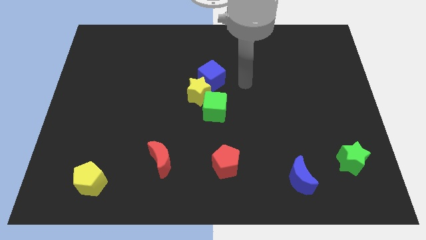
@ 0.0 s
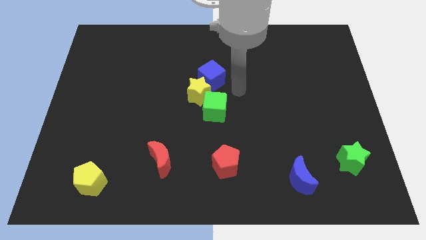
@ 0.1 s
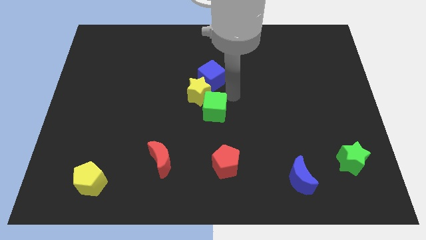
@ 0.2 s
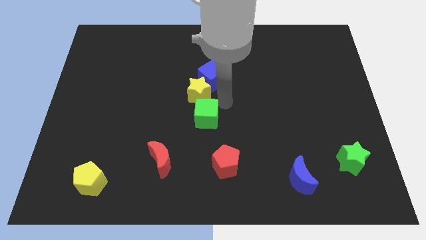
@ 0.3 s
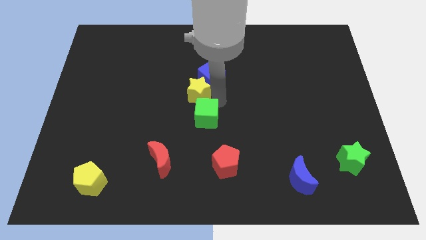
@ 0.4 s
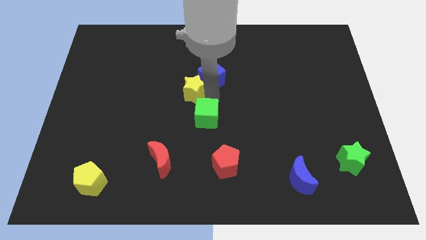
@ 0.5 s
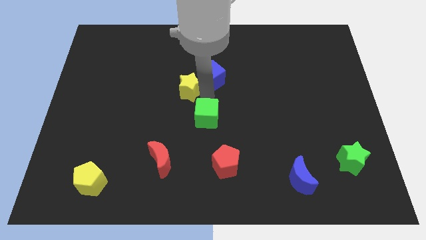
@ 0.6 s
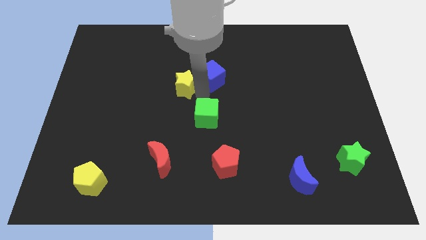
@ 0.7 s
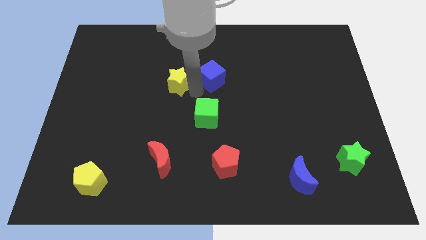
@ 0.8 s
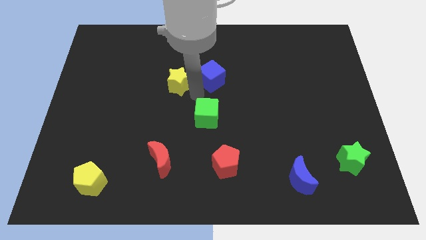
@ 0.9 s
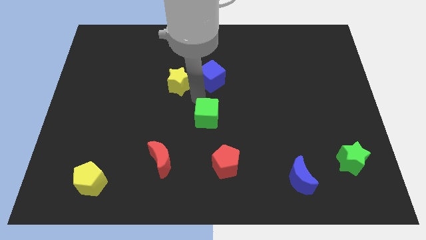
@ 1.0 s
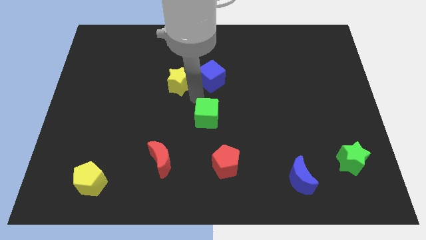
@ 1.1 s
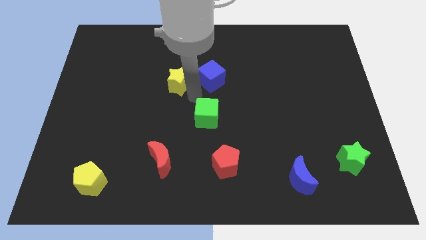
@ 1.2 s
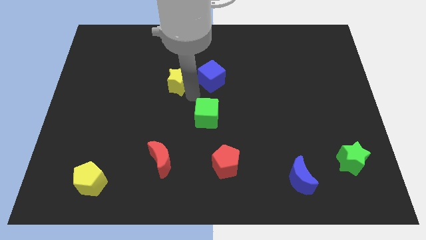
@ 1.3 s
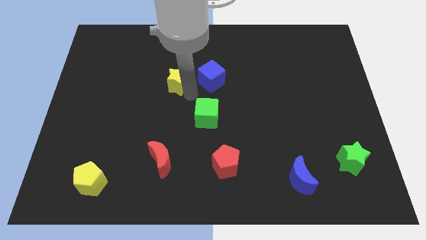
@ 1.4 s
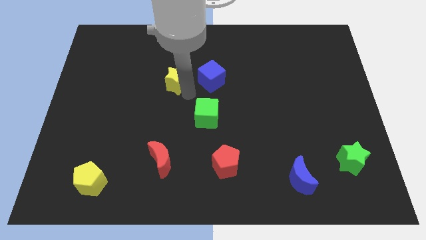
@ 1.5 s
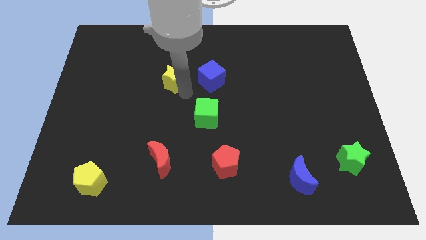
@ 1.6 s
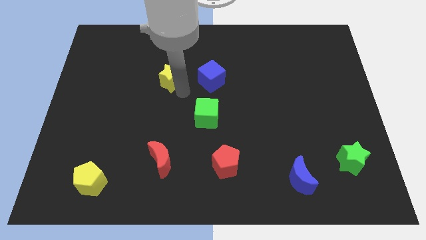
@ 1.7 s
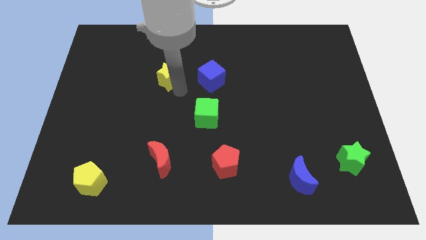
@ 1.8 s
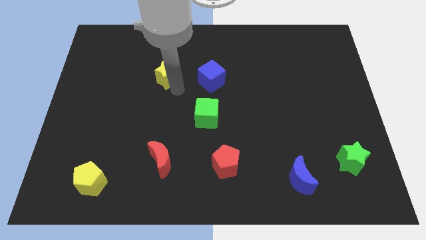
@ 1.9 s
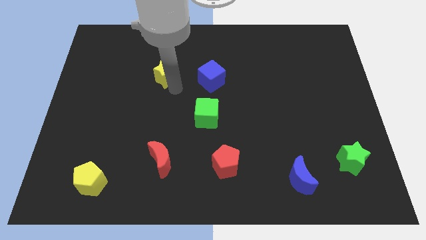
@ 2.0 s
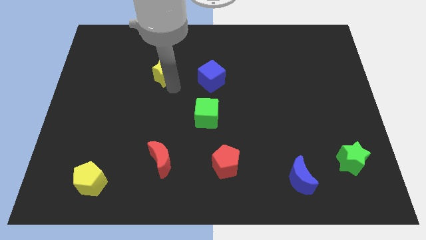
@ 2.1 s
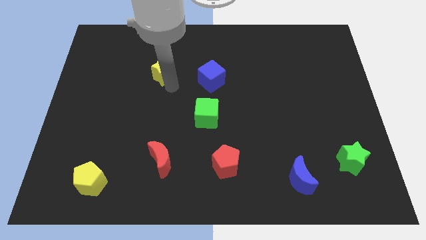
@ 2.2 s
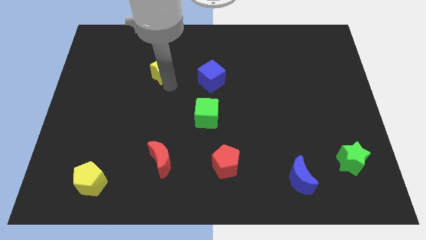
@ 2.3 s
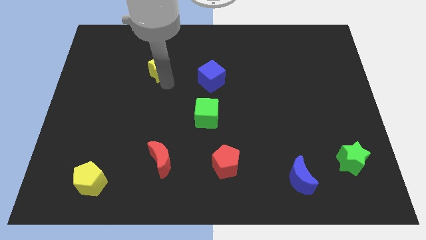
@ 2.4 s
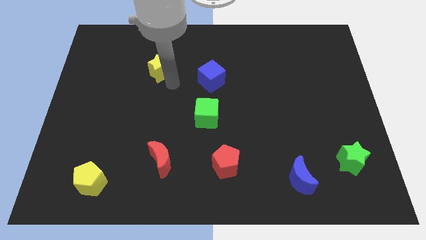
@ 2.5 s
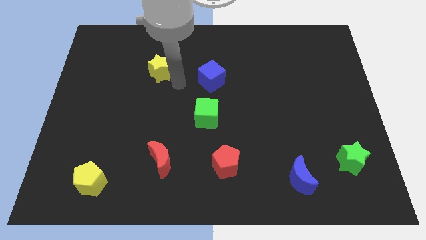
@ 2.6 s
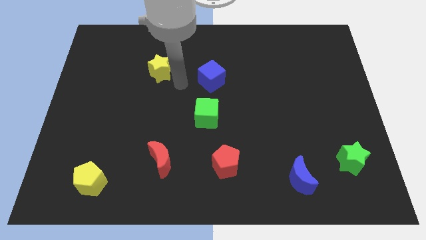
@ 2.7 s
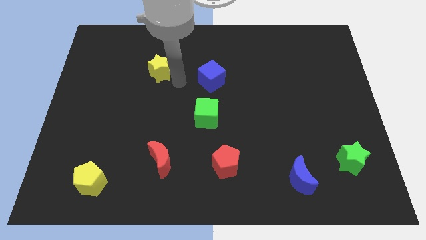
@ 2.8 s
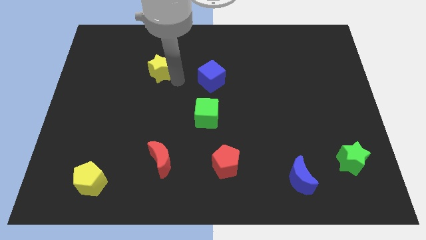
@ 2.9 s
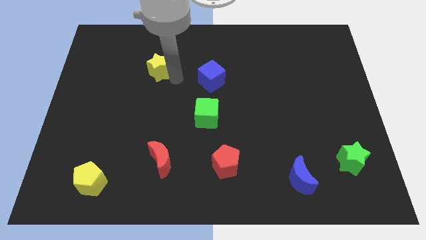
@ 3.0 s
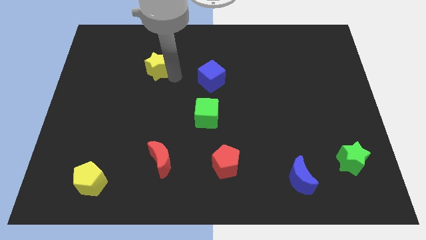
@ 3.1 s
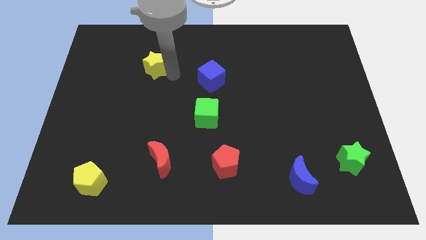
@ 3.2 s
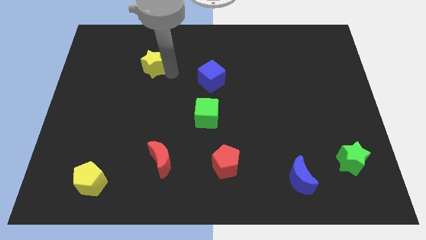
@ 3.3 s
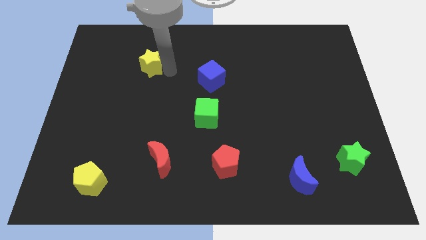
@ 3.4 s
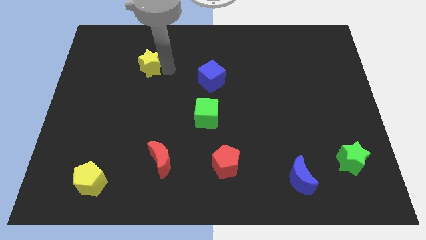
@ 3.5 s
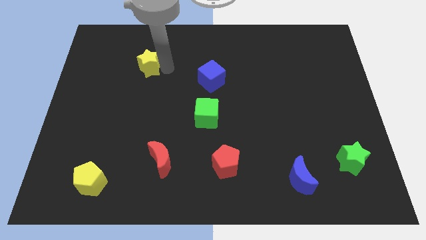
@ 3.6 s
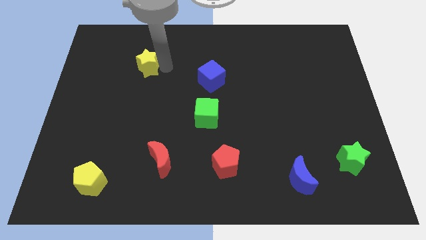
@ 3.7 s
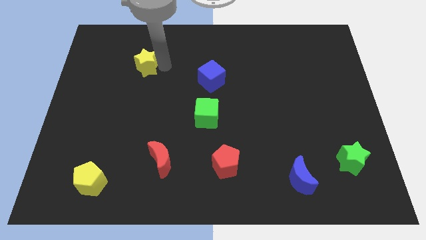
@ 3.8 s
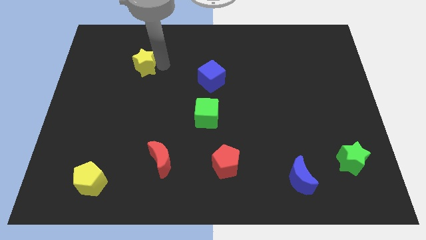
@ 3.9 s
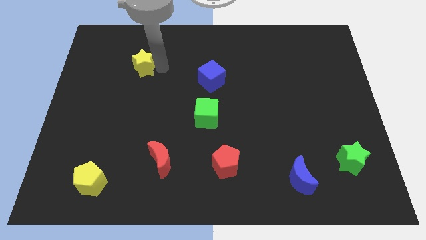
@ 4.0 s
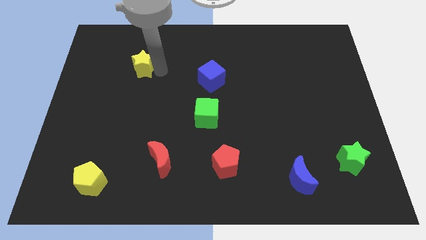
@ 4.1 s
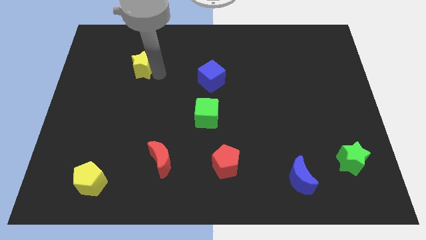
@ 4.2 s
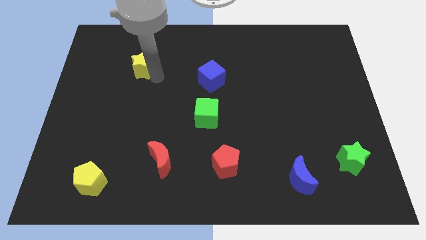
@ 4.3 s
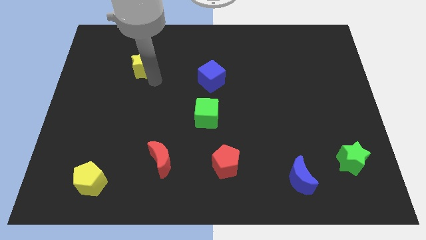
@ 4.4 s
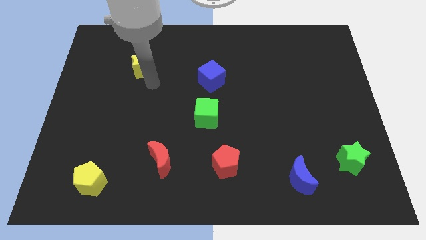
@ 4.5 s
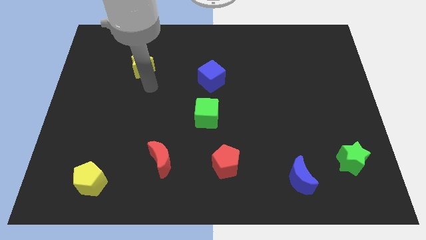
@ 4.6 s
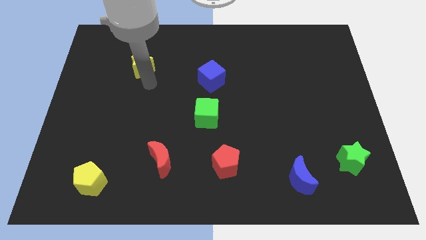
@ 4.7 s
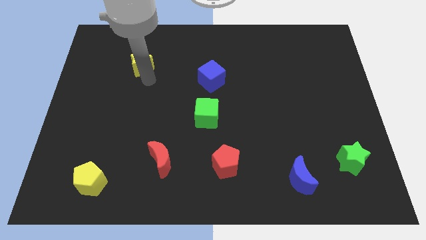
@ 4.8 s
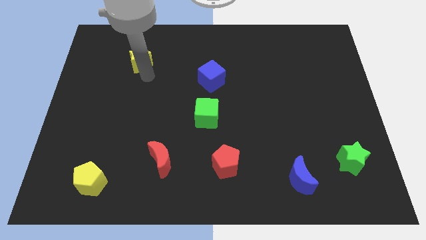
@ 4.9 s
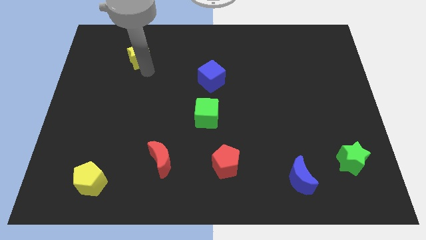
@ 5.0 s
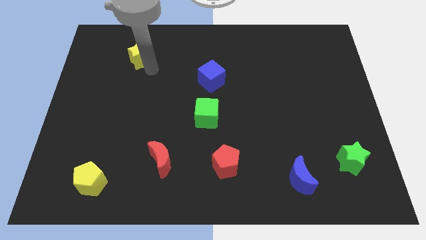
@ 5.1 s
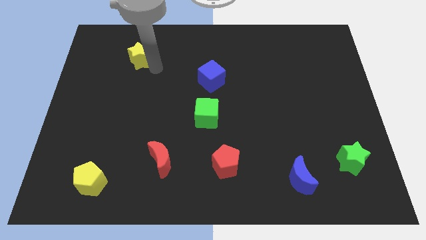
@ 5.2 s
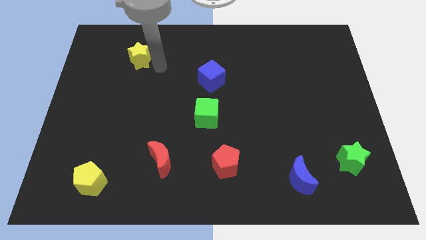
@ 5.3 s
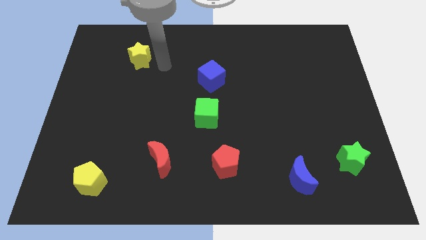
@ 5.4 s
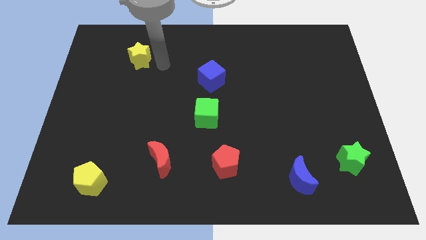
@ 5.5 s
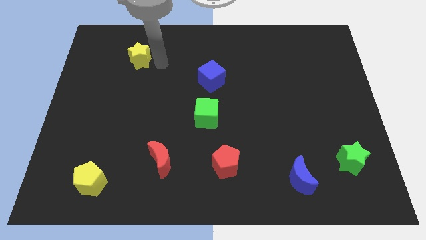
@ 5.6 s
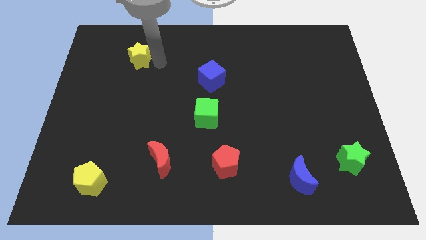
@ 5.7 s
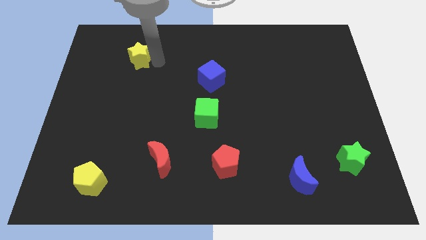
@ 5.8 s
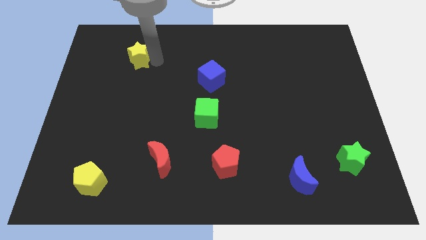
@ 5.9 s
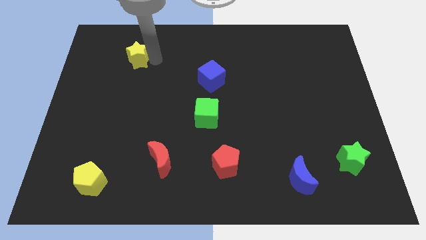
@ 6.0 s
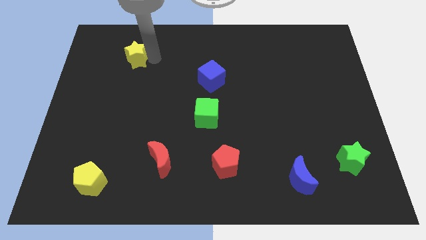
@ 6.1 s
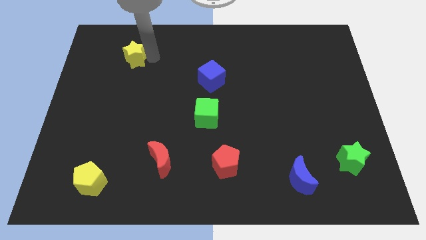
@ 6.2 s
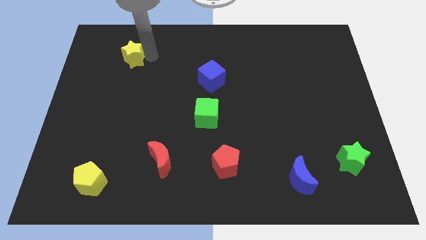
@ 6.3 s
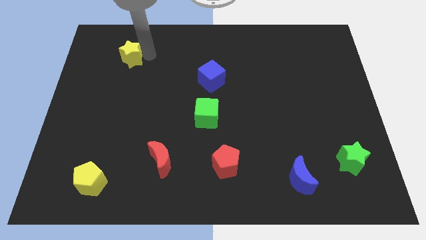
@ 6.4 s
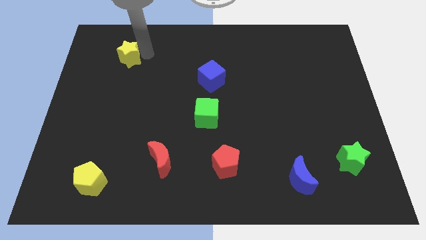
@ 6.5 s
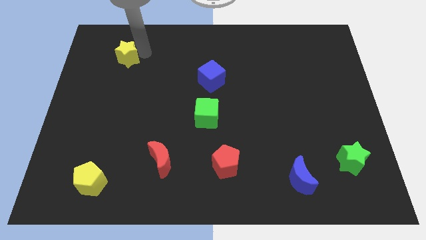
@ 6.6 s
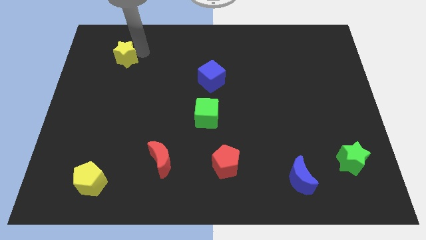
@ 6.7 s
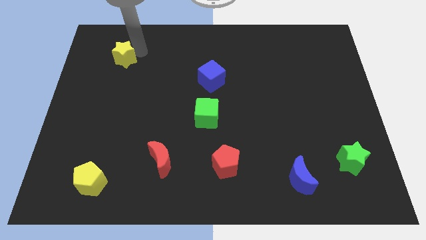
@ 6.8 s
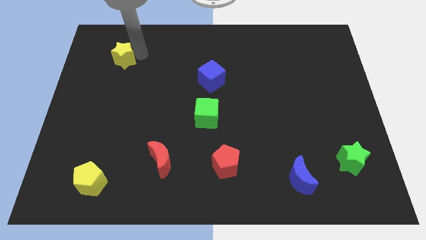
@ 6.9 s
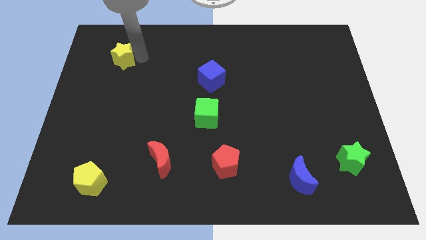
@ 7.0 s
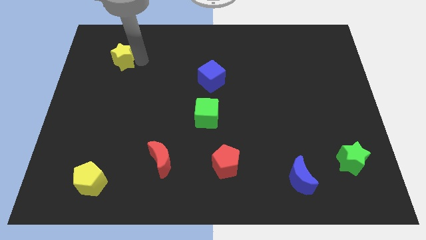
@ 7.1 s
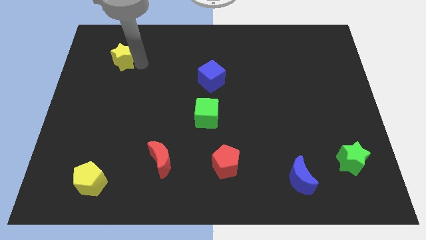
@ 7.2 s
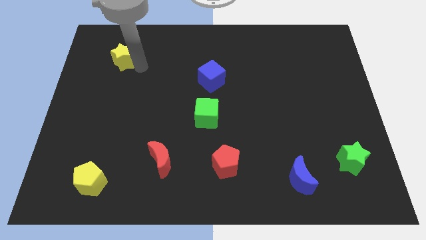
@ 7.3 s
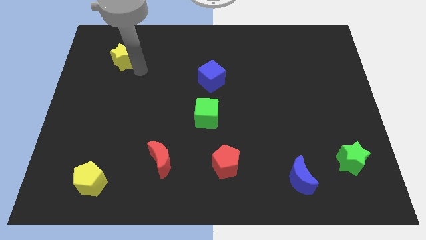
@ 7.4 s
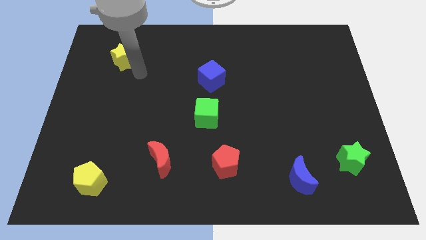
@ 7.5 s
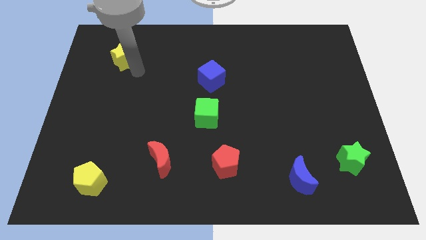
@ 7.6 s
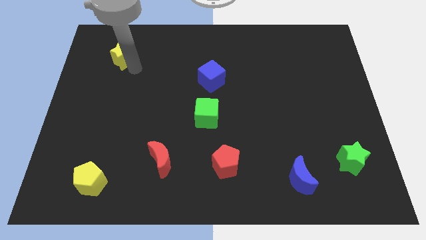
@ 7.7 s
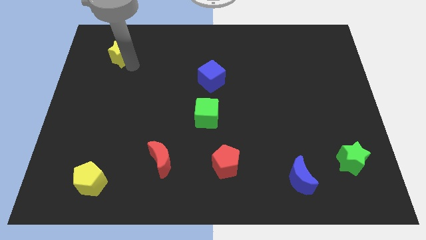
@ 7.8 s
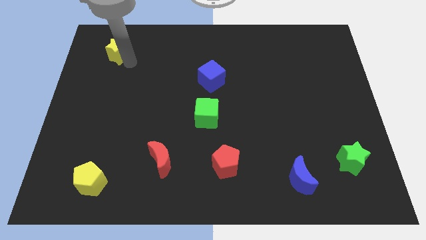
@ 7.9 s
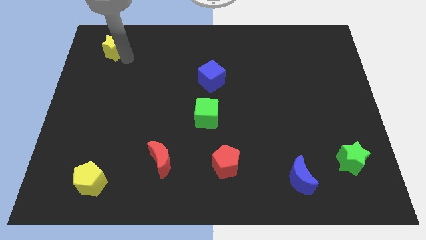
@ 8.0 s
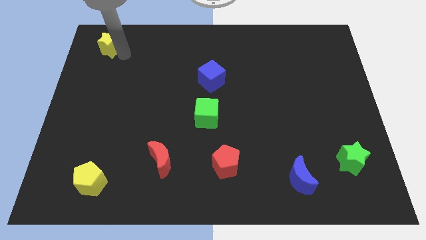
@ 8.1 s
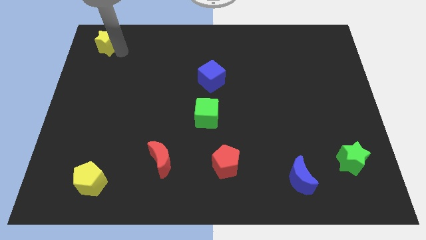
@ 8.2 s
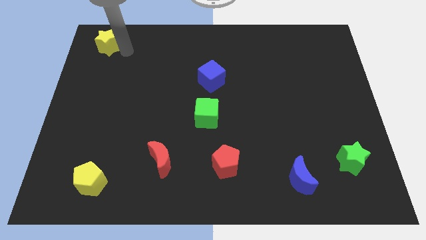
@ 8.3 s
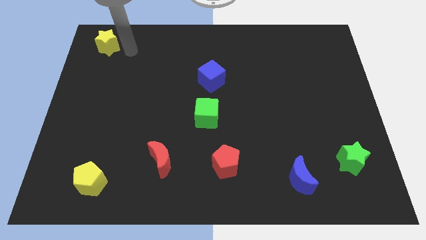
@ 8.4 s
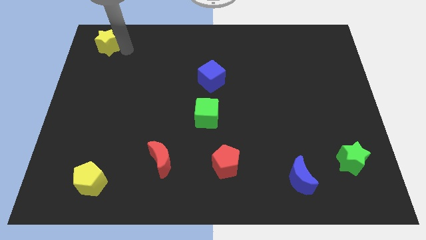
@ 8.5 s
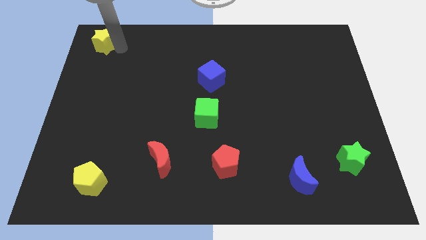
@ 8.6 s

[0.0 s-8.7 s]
slide the yellow star to the top left
